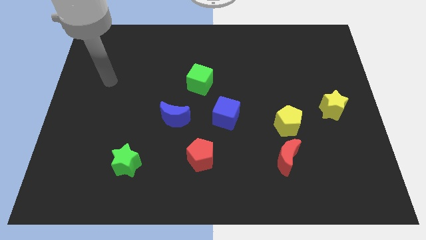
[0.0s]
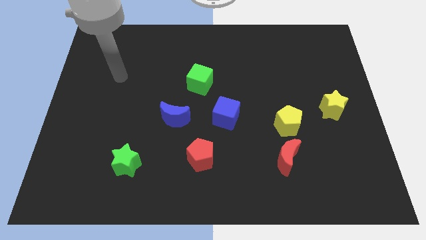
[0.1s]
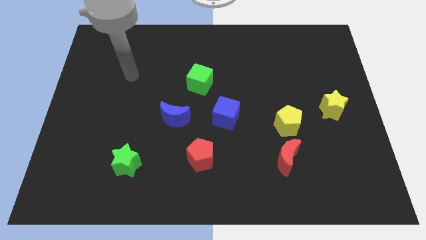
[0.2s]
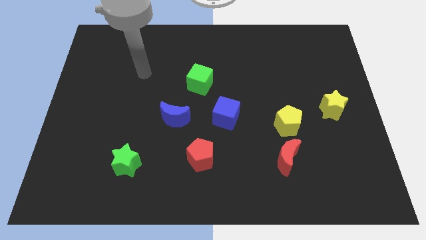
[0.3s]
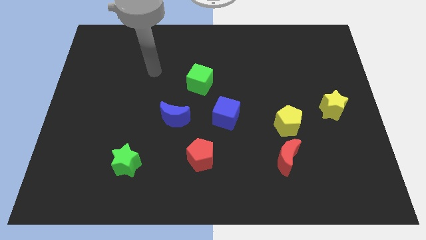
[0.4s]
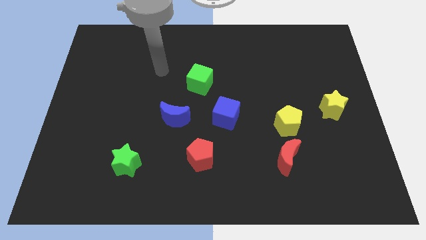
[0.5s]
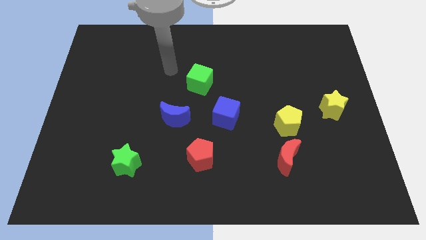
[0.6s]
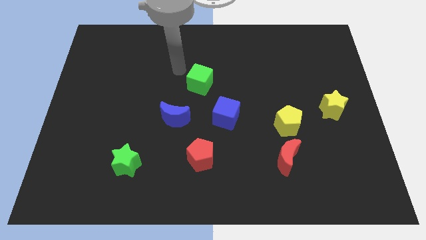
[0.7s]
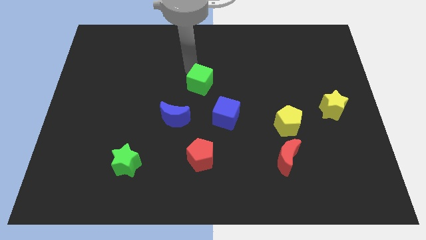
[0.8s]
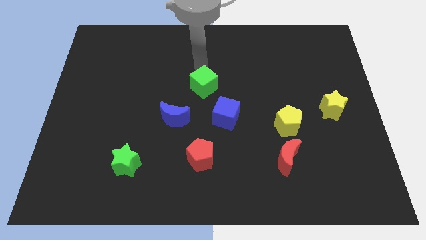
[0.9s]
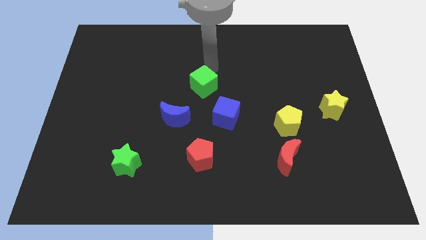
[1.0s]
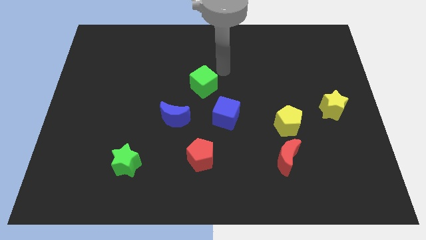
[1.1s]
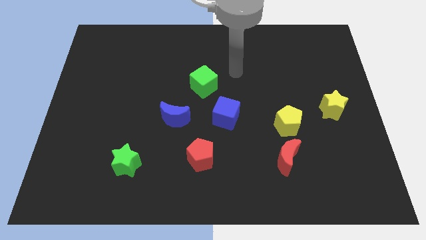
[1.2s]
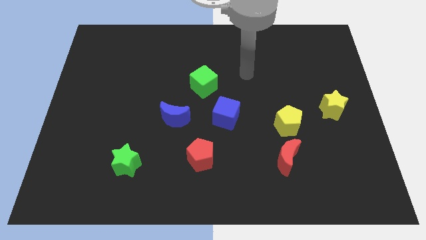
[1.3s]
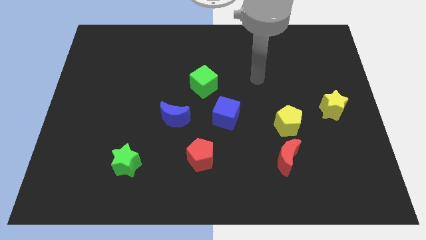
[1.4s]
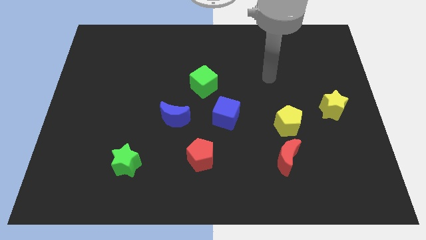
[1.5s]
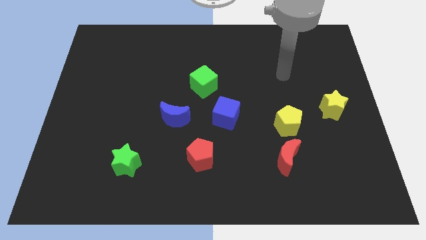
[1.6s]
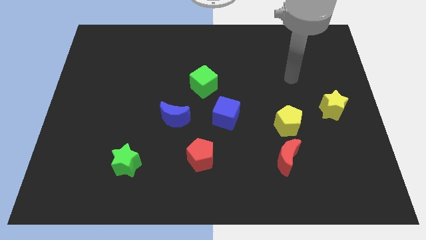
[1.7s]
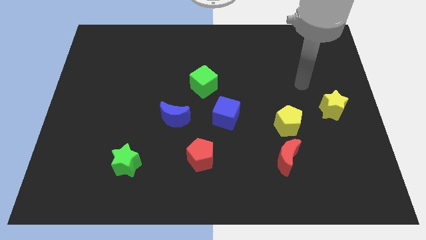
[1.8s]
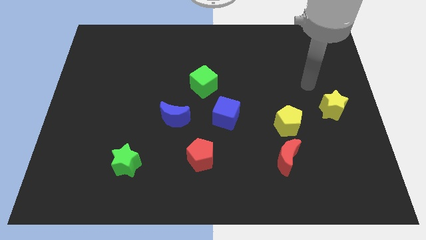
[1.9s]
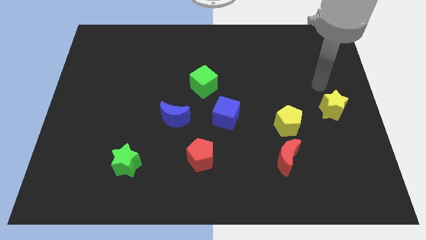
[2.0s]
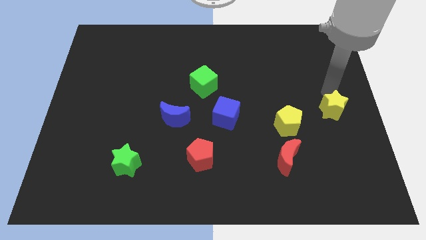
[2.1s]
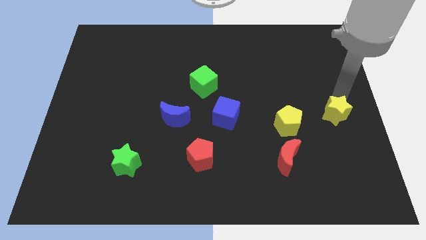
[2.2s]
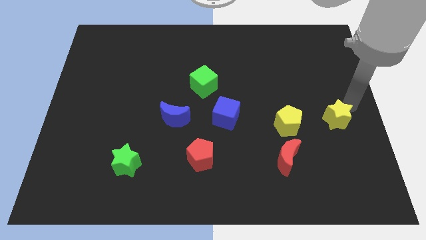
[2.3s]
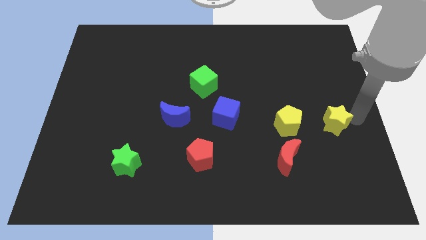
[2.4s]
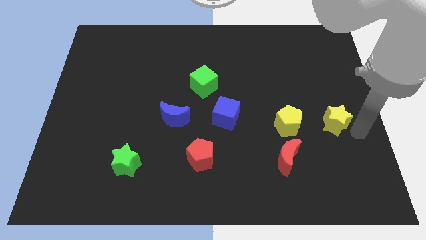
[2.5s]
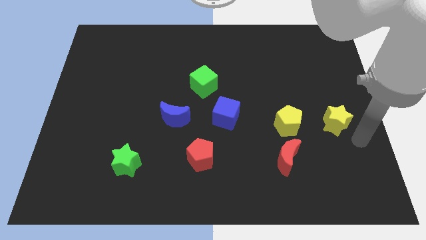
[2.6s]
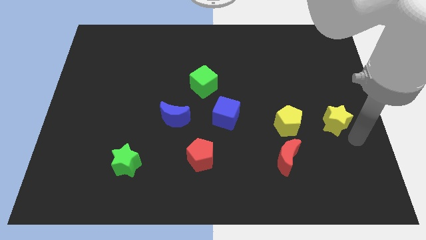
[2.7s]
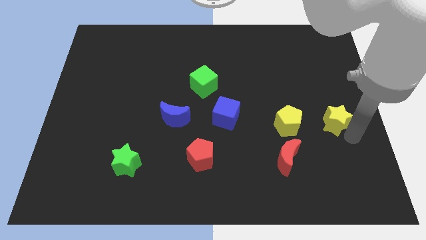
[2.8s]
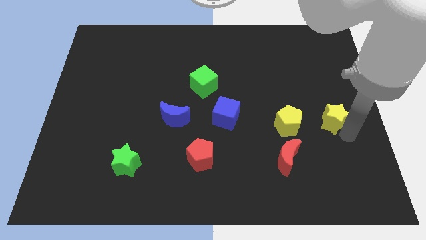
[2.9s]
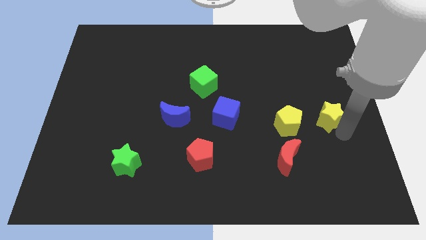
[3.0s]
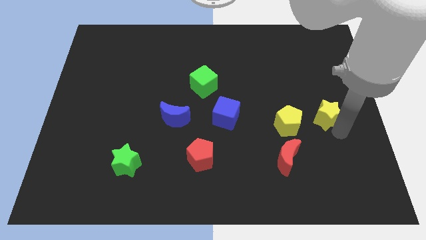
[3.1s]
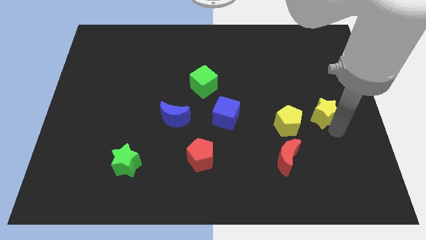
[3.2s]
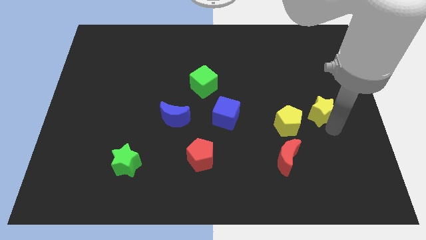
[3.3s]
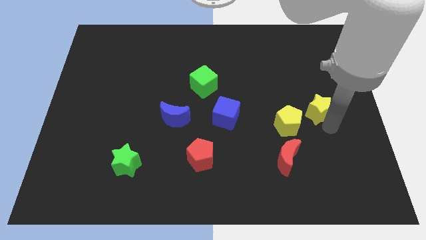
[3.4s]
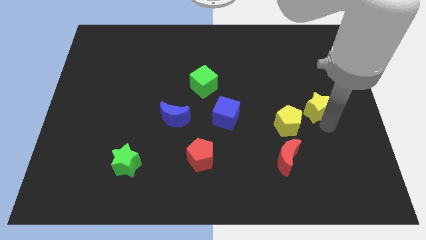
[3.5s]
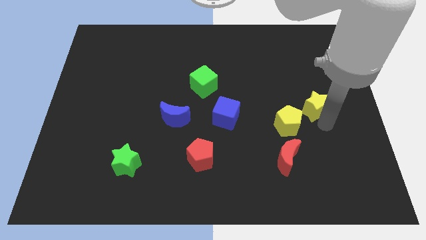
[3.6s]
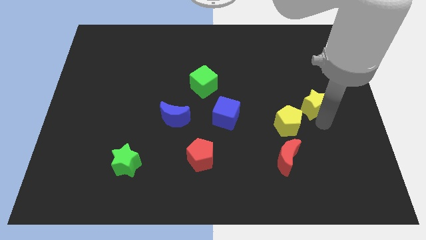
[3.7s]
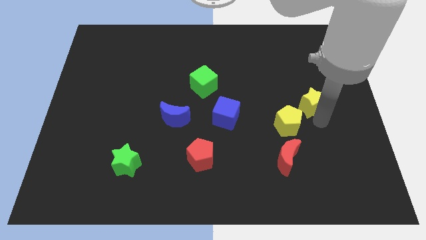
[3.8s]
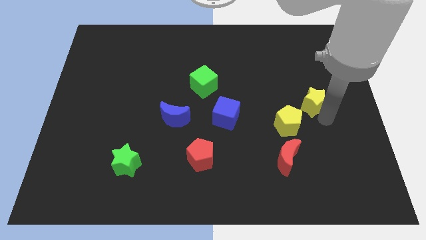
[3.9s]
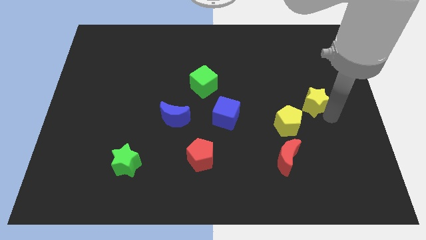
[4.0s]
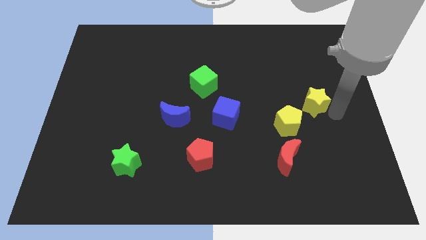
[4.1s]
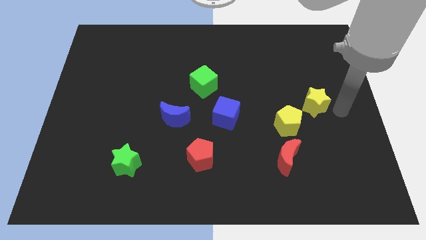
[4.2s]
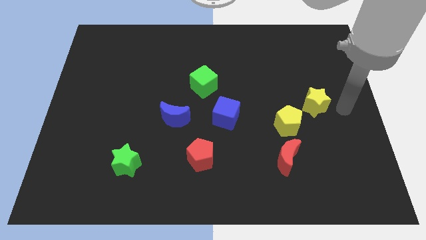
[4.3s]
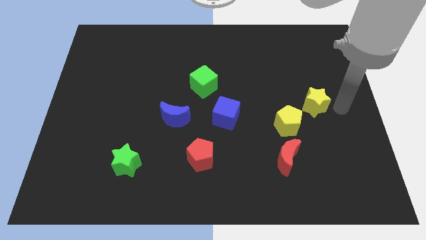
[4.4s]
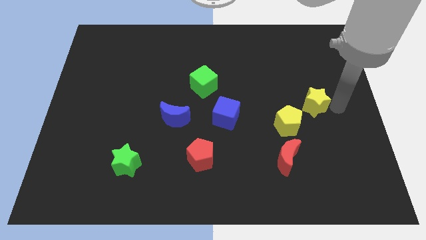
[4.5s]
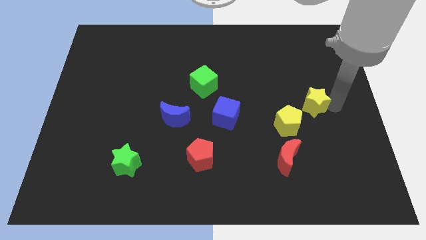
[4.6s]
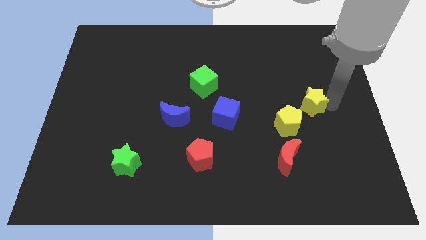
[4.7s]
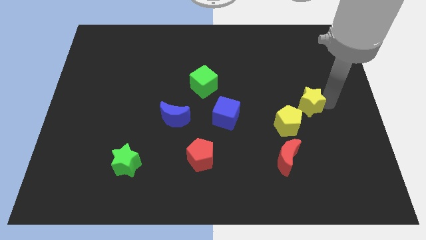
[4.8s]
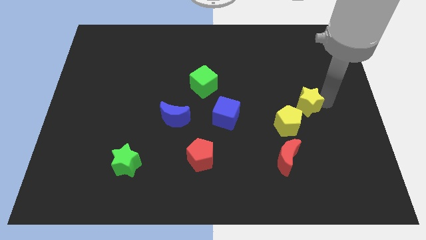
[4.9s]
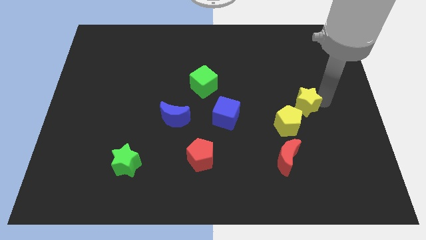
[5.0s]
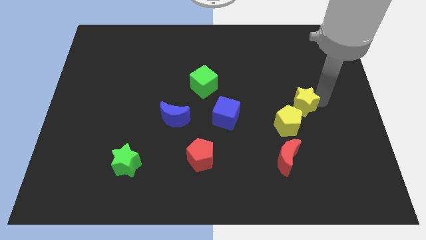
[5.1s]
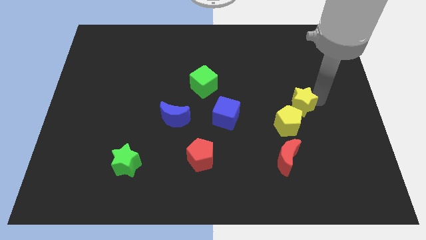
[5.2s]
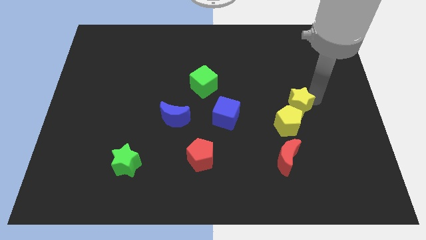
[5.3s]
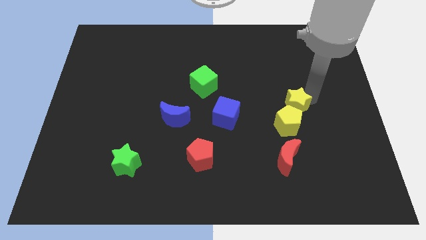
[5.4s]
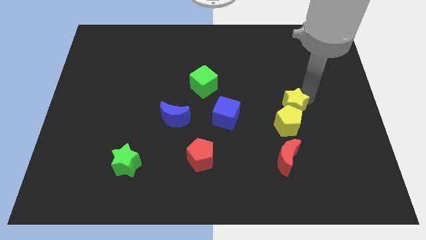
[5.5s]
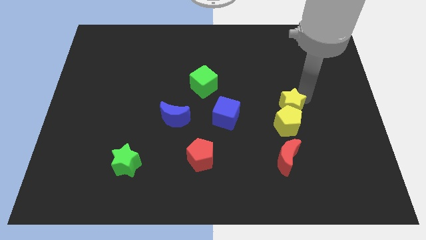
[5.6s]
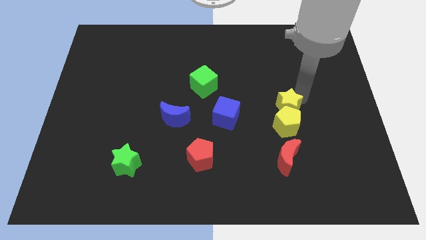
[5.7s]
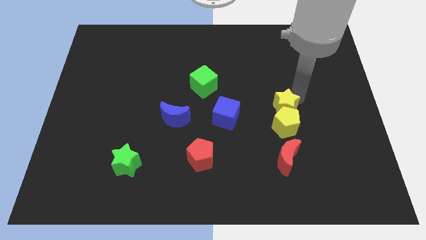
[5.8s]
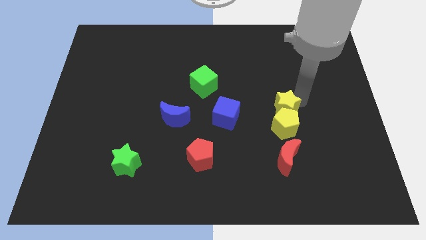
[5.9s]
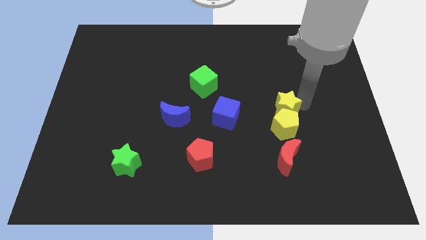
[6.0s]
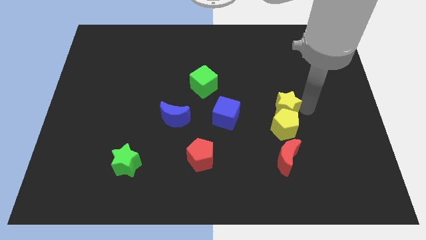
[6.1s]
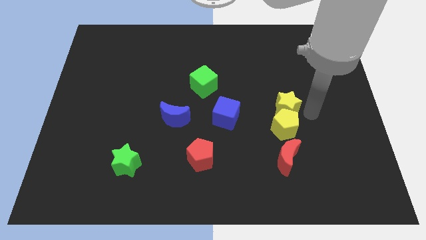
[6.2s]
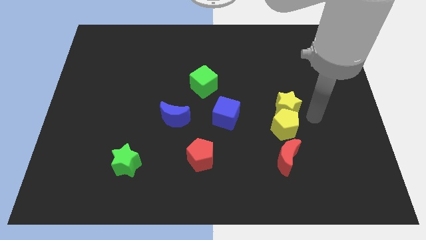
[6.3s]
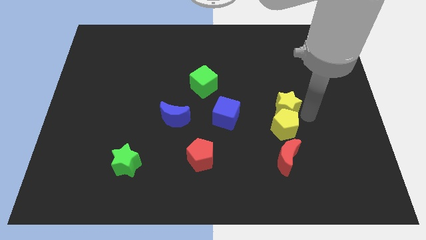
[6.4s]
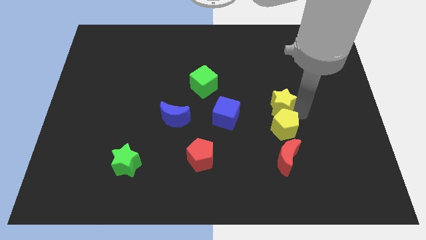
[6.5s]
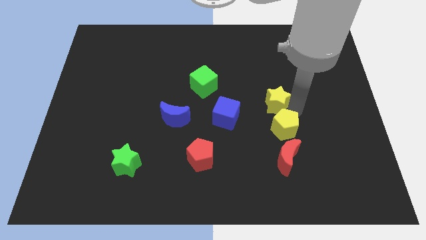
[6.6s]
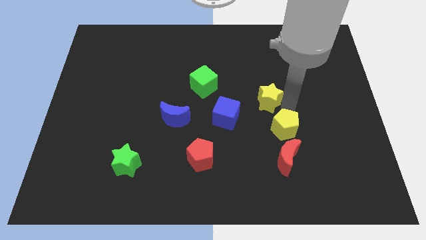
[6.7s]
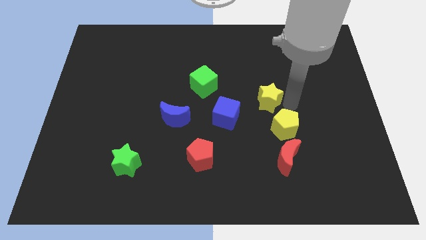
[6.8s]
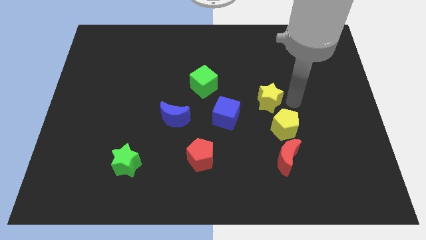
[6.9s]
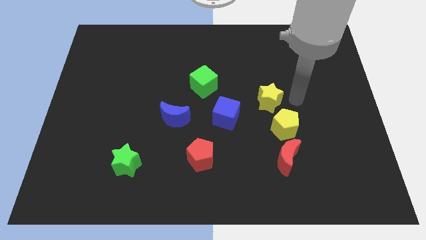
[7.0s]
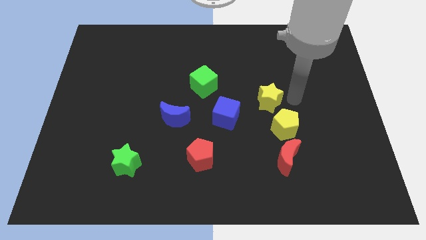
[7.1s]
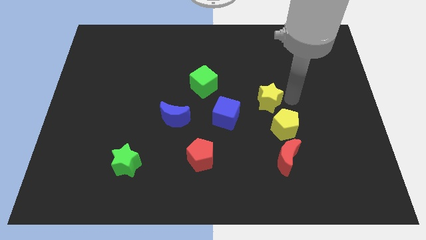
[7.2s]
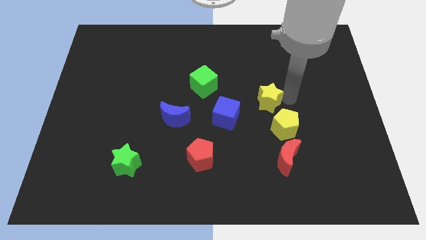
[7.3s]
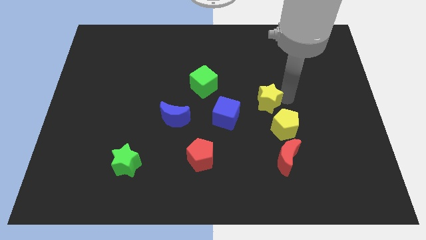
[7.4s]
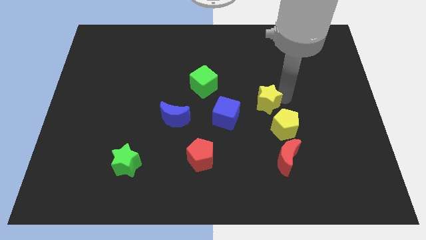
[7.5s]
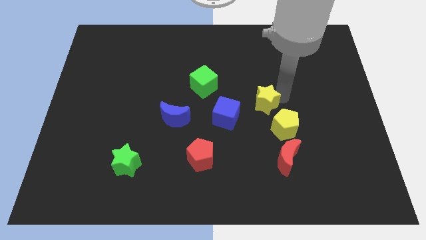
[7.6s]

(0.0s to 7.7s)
put the yellow star to the middle of the board

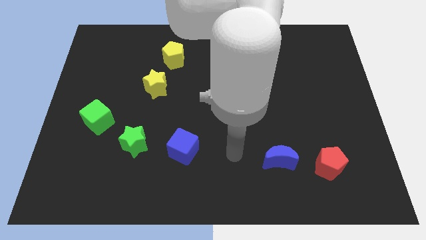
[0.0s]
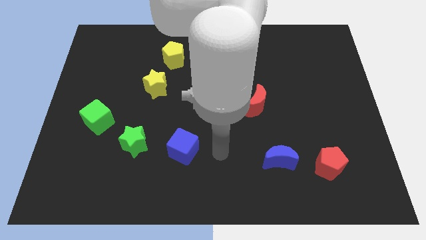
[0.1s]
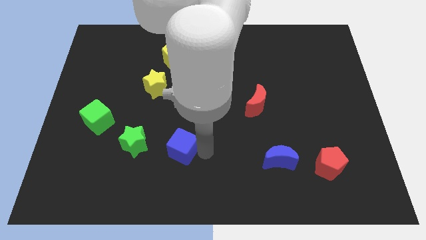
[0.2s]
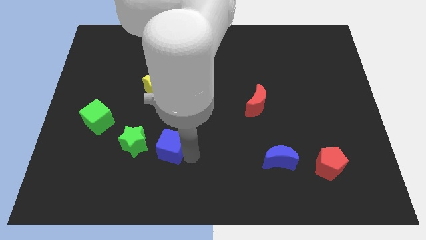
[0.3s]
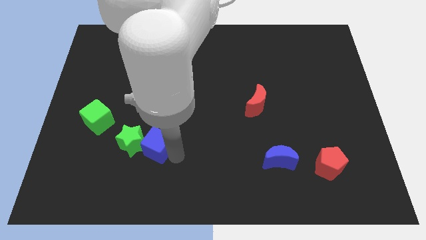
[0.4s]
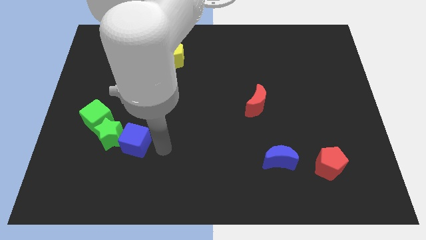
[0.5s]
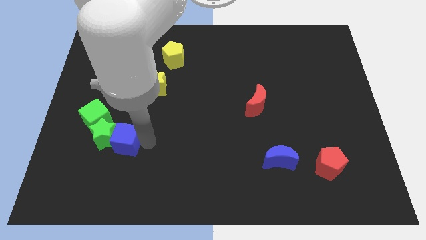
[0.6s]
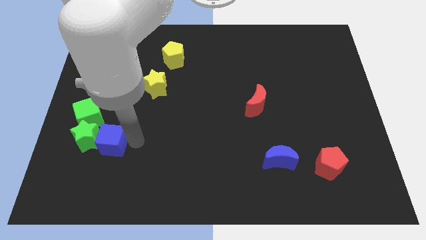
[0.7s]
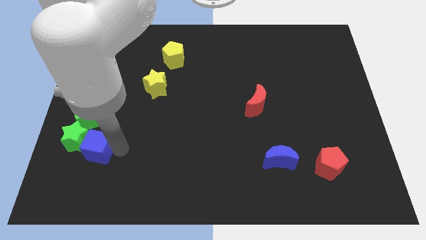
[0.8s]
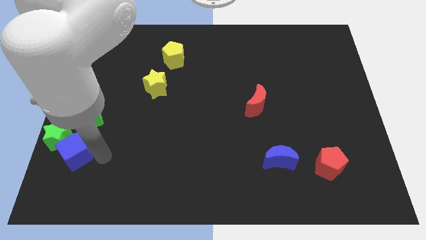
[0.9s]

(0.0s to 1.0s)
move the green star to the left side of the board
